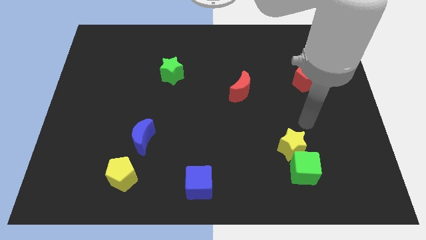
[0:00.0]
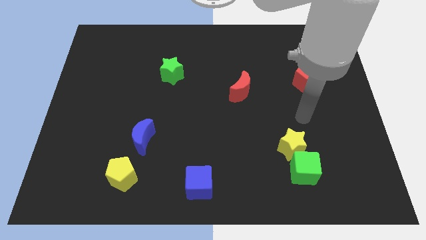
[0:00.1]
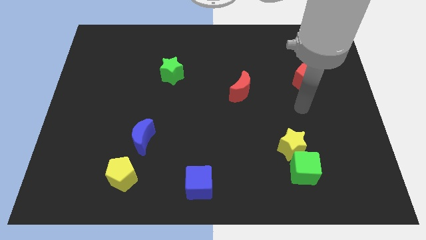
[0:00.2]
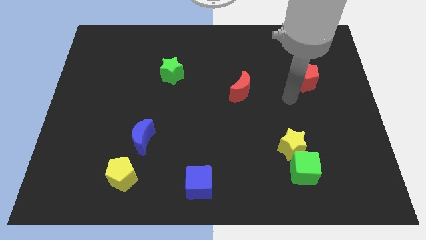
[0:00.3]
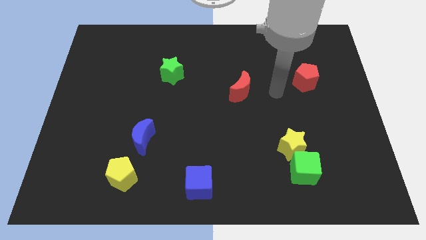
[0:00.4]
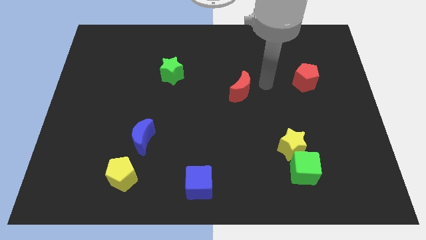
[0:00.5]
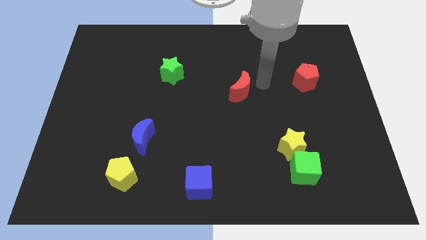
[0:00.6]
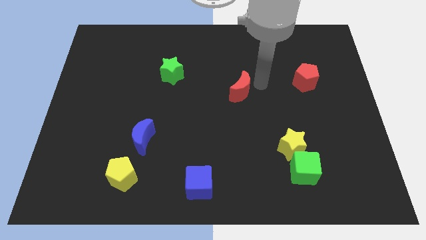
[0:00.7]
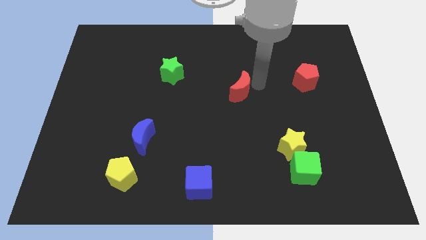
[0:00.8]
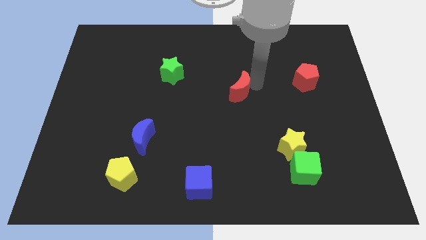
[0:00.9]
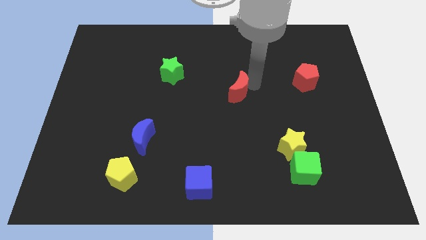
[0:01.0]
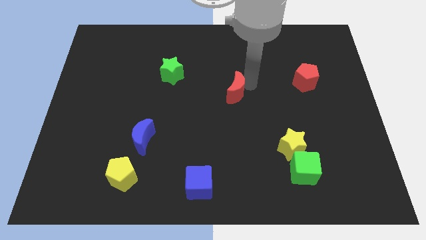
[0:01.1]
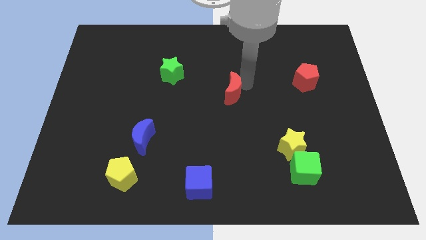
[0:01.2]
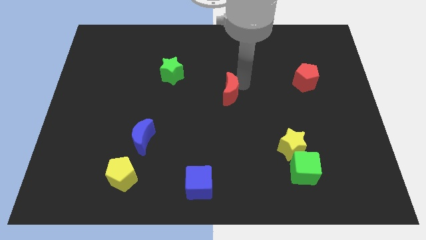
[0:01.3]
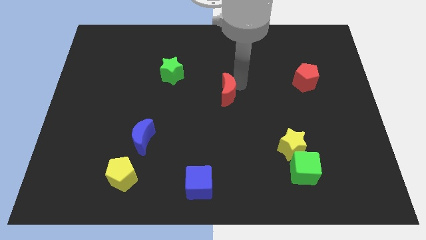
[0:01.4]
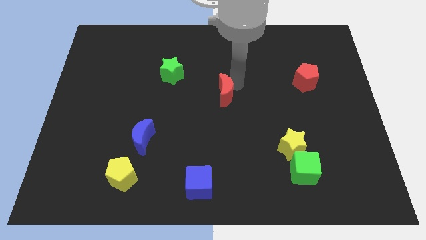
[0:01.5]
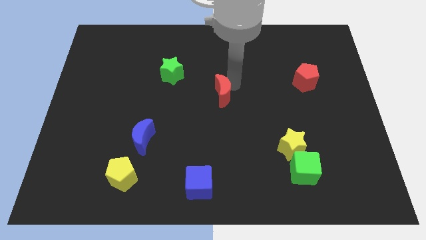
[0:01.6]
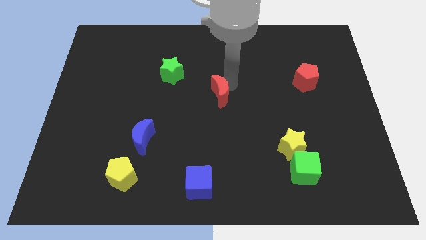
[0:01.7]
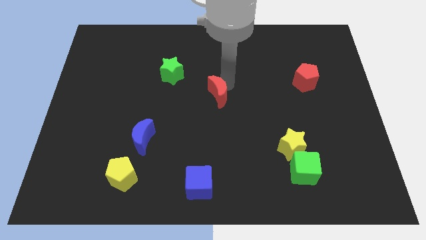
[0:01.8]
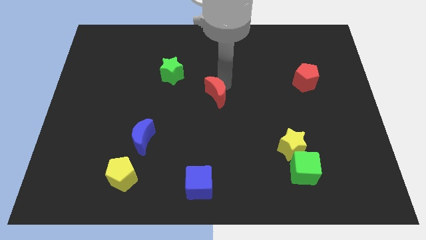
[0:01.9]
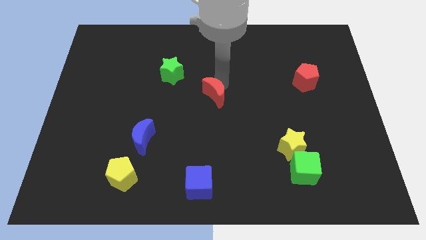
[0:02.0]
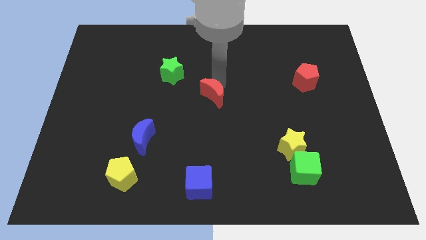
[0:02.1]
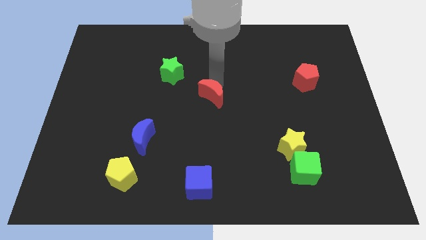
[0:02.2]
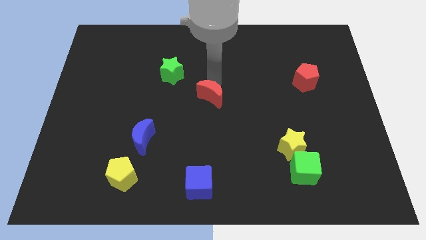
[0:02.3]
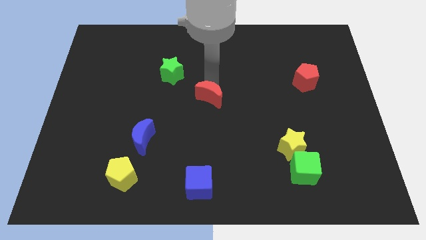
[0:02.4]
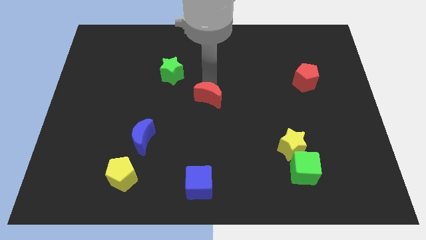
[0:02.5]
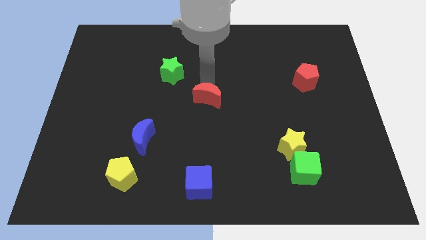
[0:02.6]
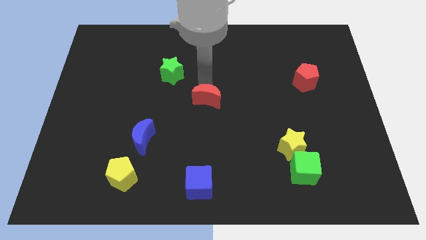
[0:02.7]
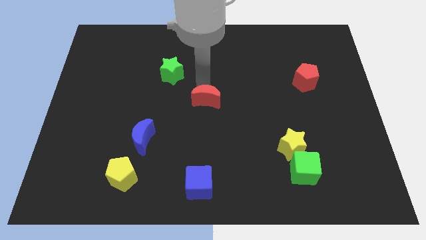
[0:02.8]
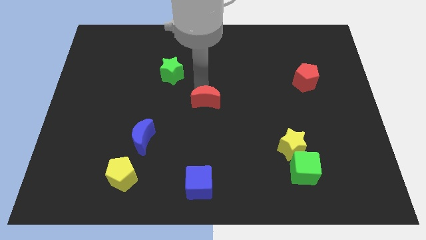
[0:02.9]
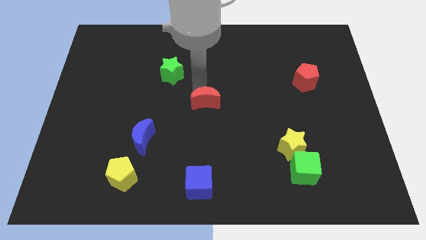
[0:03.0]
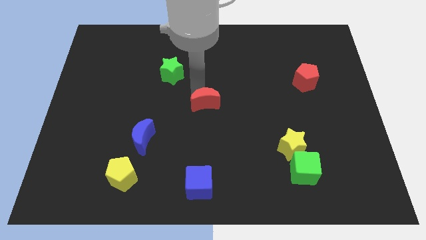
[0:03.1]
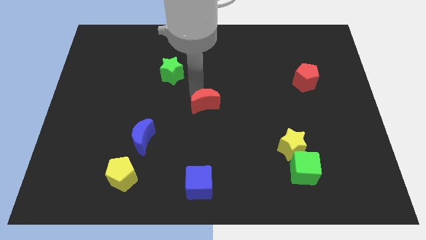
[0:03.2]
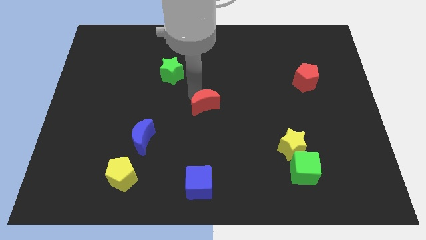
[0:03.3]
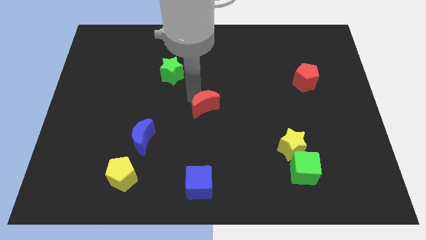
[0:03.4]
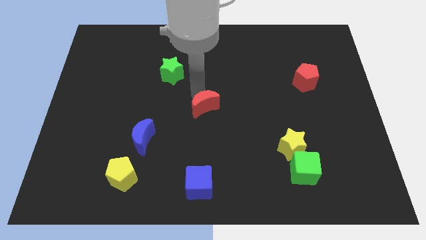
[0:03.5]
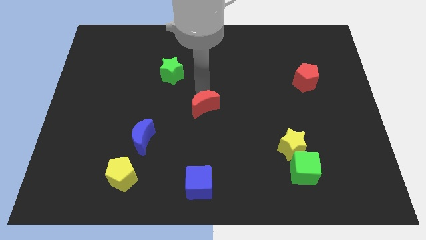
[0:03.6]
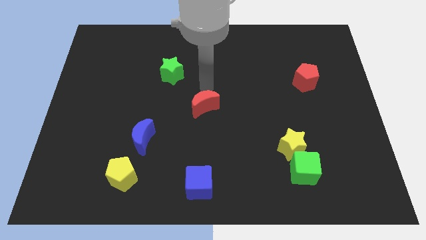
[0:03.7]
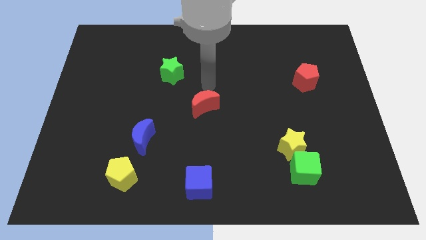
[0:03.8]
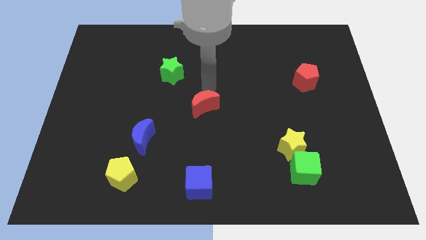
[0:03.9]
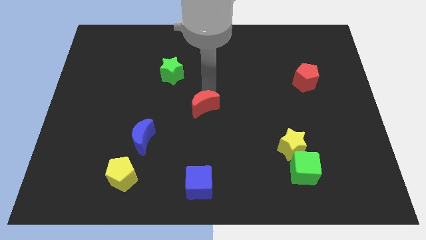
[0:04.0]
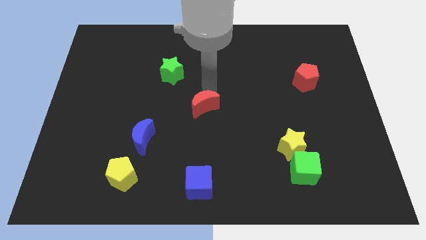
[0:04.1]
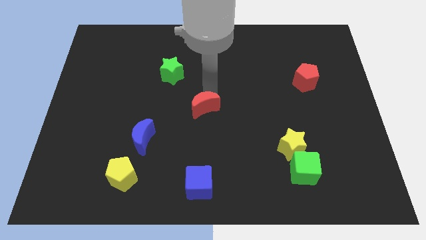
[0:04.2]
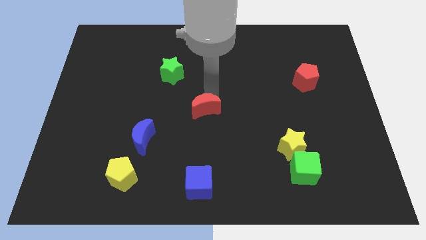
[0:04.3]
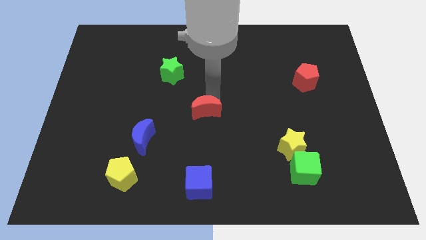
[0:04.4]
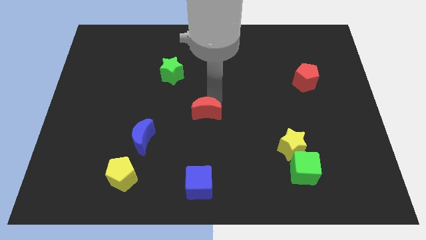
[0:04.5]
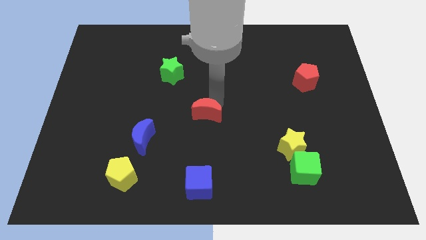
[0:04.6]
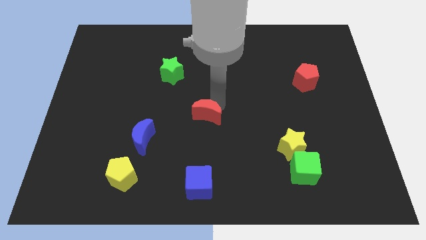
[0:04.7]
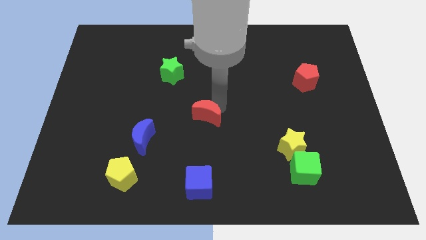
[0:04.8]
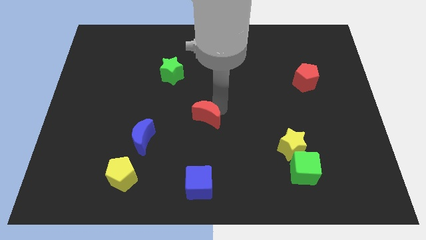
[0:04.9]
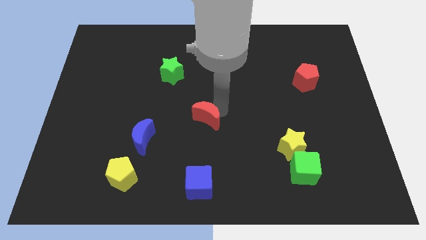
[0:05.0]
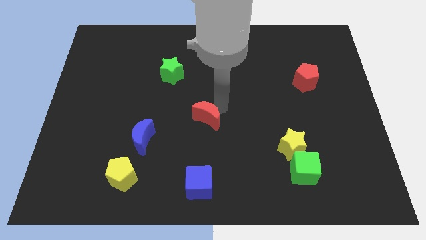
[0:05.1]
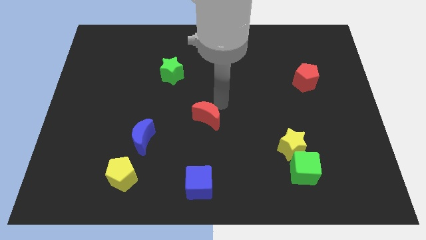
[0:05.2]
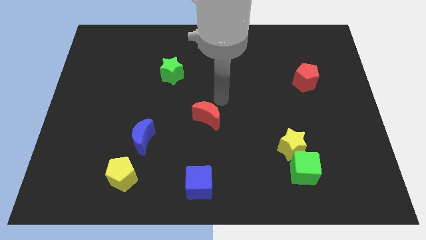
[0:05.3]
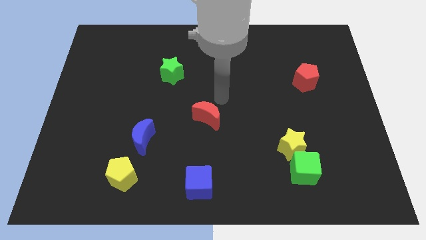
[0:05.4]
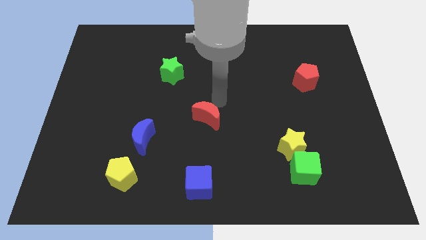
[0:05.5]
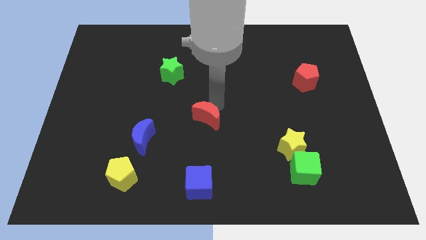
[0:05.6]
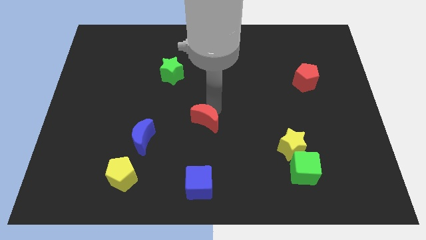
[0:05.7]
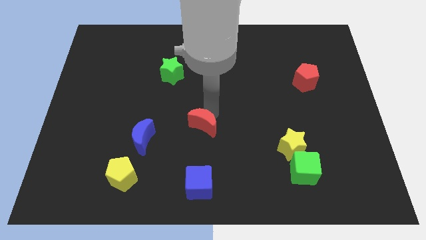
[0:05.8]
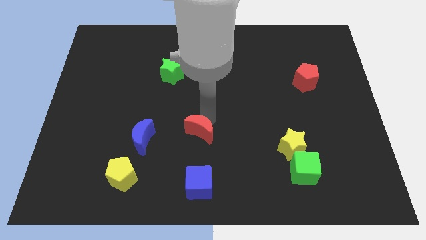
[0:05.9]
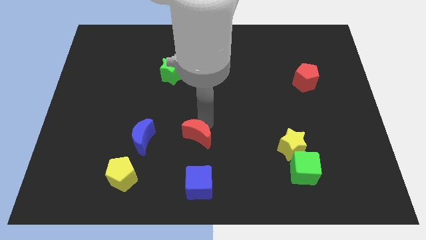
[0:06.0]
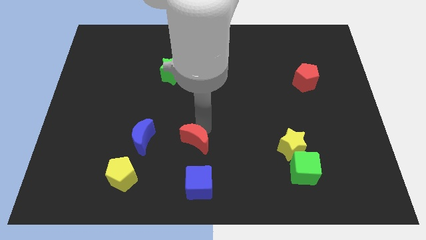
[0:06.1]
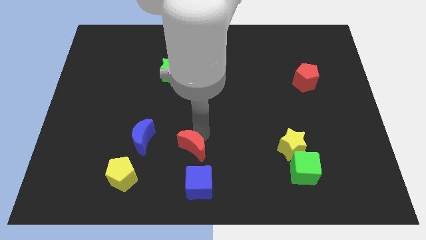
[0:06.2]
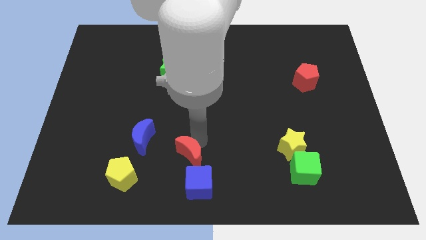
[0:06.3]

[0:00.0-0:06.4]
put the red moon to the top left side of the blue cube

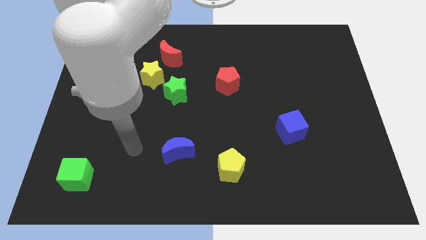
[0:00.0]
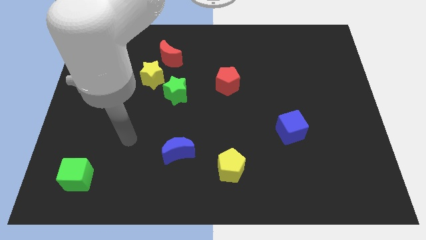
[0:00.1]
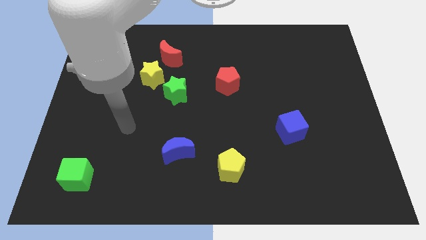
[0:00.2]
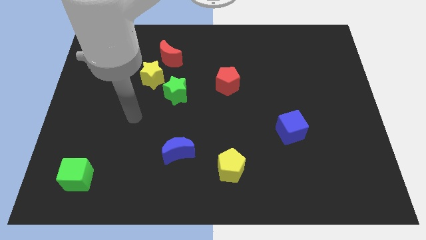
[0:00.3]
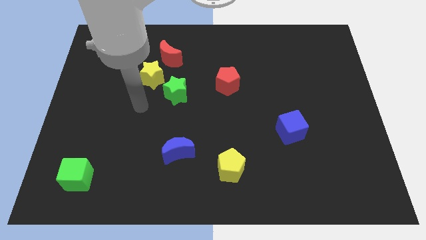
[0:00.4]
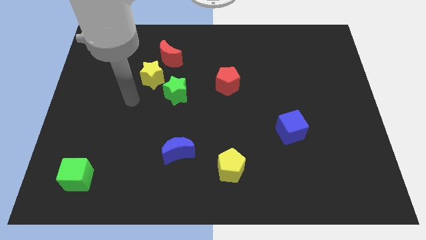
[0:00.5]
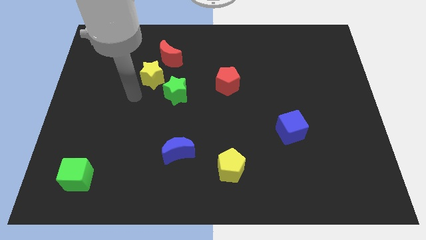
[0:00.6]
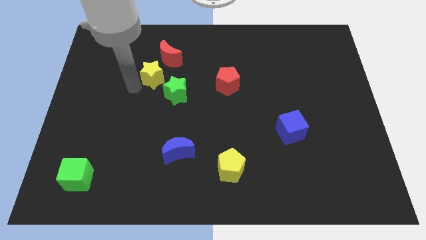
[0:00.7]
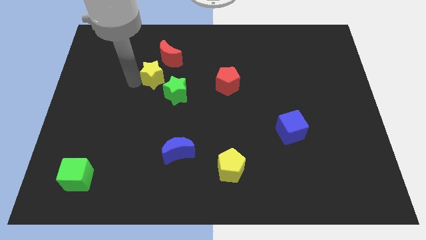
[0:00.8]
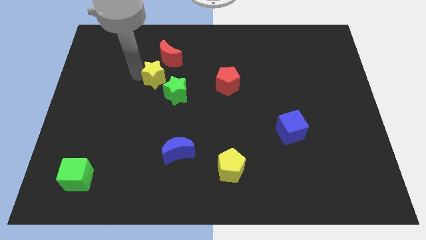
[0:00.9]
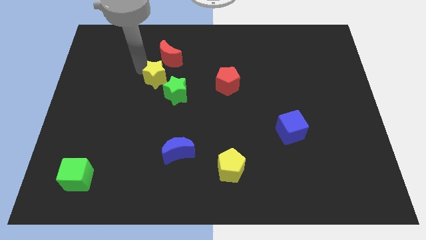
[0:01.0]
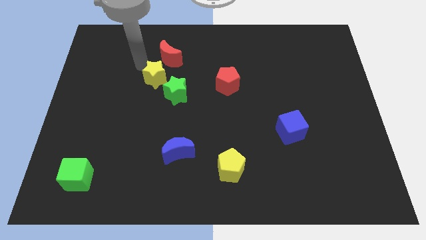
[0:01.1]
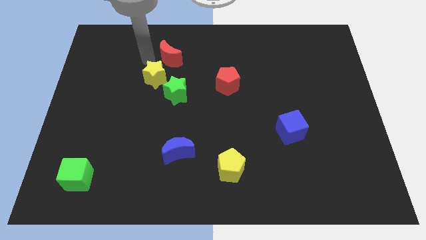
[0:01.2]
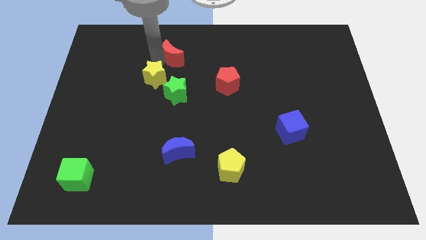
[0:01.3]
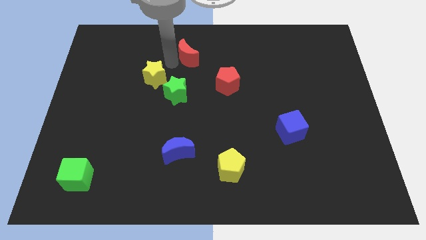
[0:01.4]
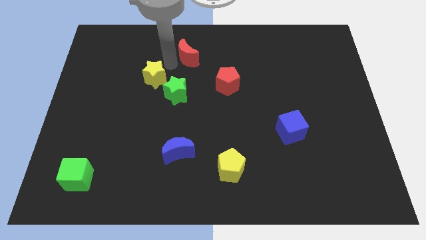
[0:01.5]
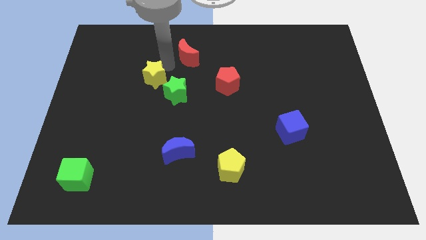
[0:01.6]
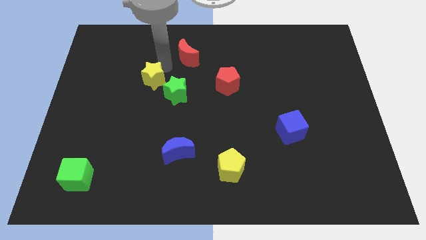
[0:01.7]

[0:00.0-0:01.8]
push the yellow star to the left of the green star
